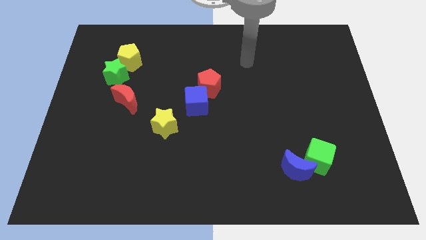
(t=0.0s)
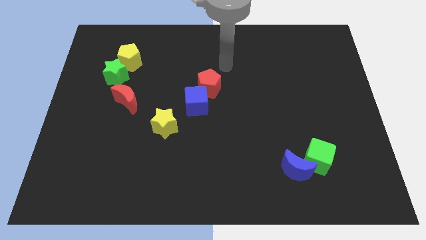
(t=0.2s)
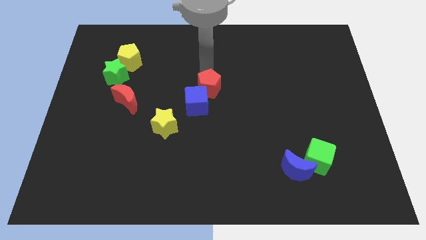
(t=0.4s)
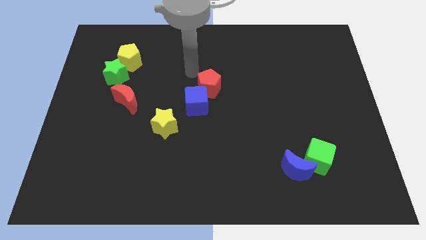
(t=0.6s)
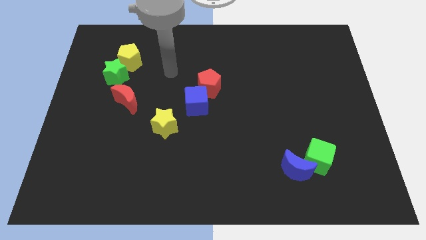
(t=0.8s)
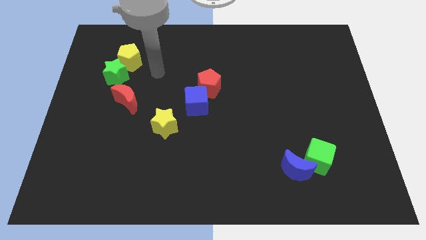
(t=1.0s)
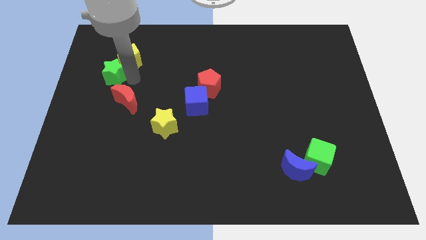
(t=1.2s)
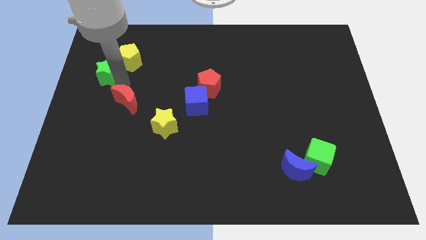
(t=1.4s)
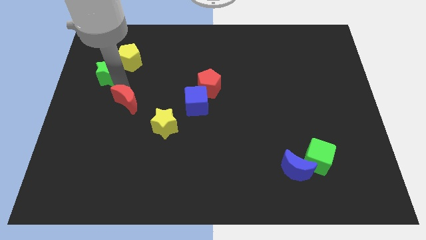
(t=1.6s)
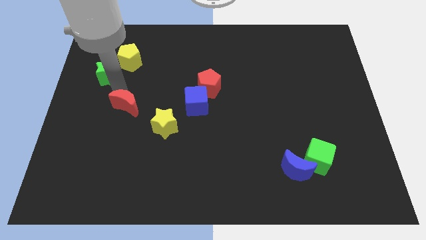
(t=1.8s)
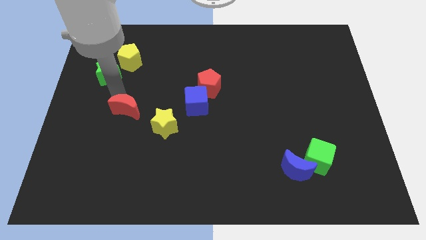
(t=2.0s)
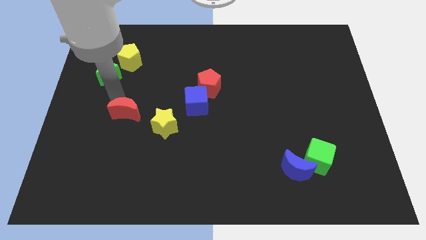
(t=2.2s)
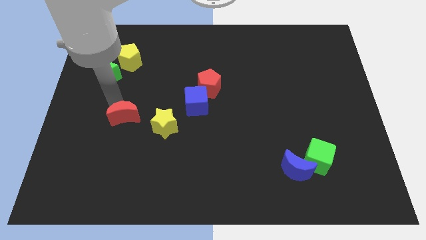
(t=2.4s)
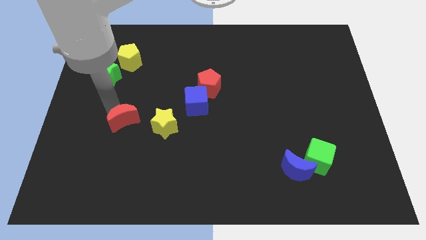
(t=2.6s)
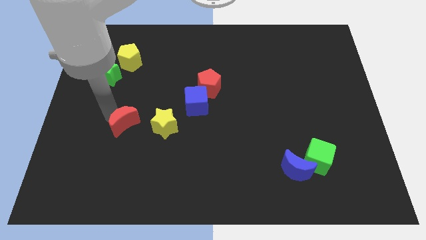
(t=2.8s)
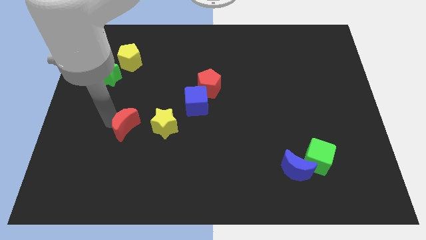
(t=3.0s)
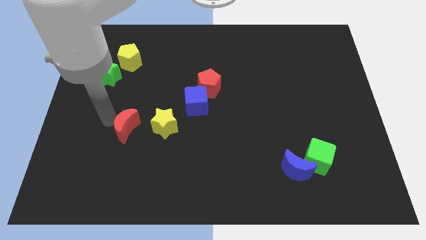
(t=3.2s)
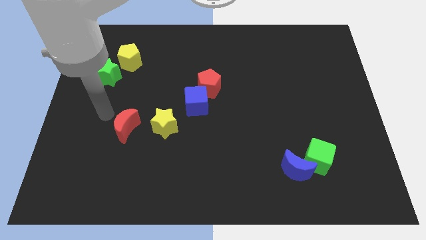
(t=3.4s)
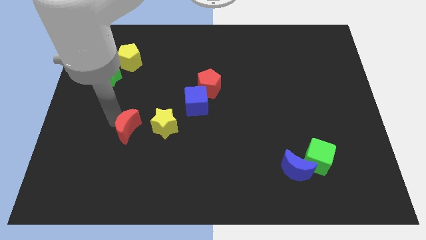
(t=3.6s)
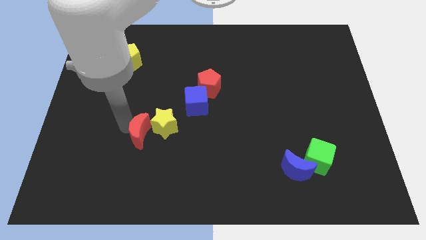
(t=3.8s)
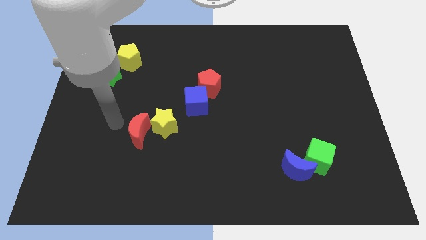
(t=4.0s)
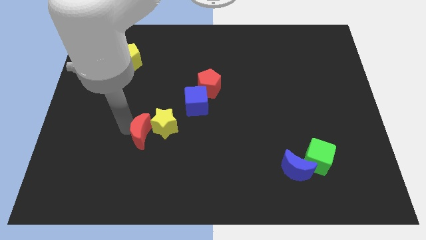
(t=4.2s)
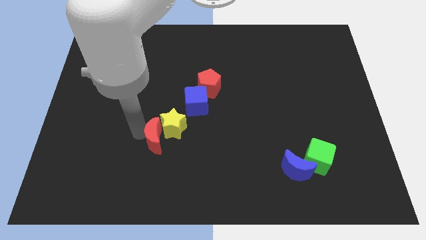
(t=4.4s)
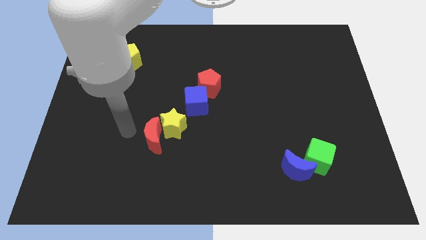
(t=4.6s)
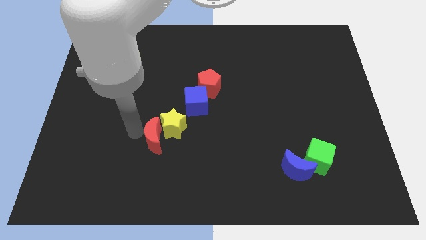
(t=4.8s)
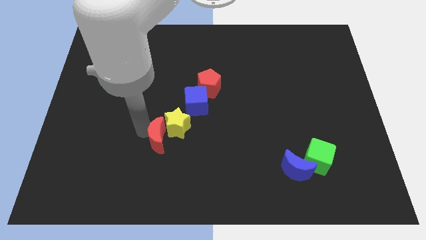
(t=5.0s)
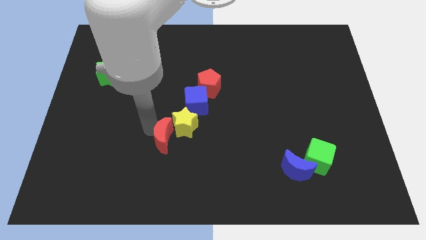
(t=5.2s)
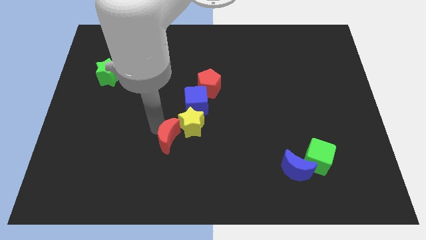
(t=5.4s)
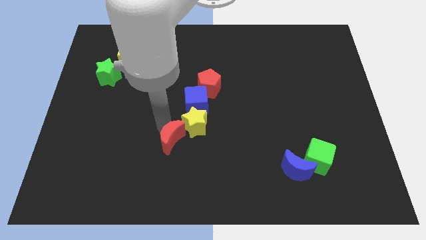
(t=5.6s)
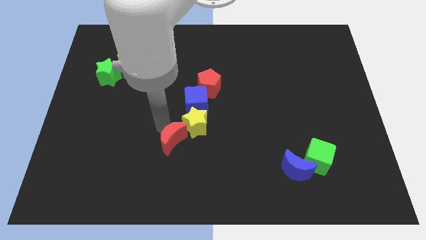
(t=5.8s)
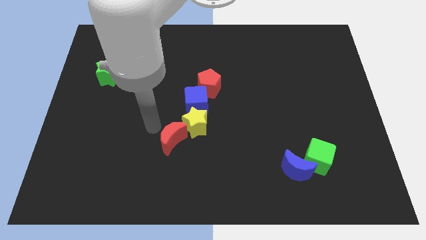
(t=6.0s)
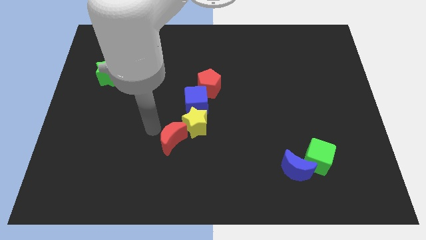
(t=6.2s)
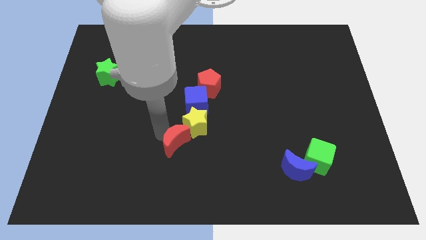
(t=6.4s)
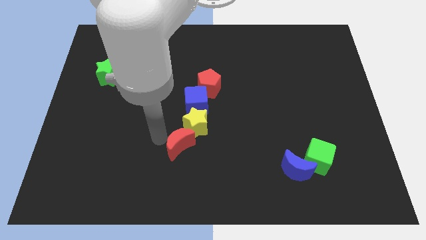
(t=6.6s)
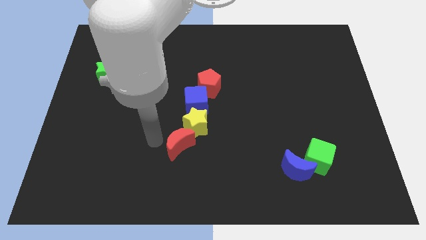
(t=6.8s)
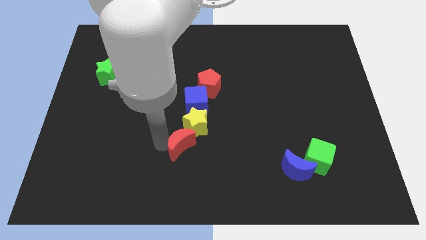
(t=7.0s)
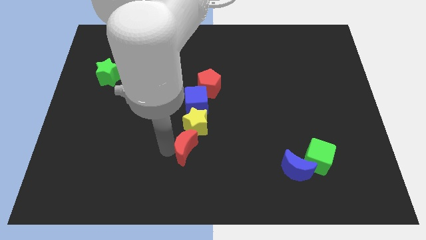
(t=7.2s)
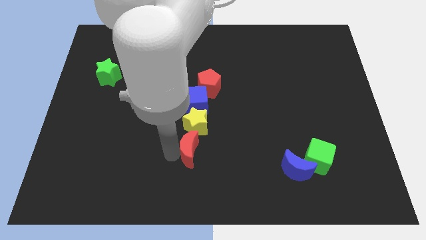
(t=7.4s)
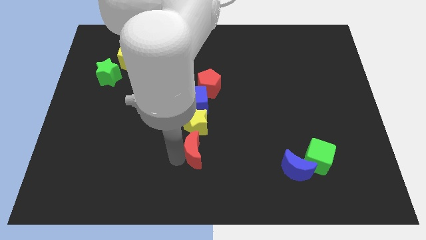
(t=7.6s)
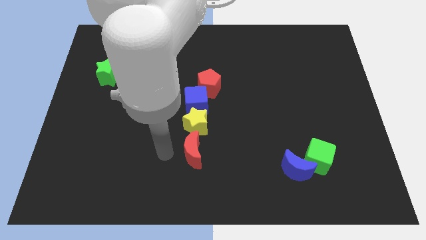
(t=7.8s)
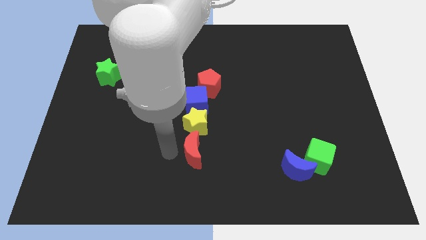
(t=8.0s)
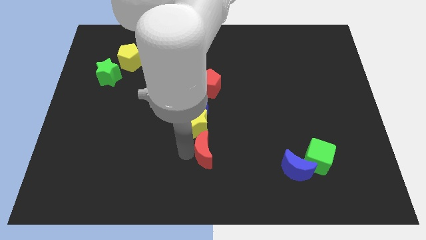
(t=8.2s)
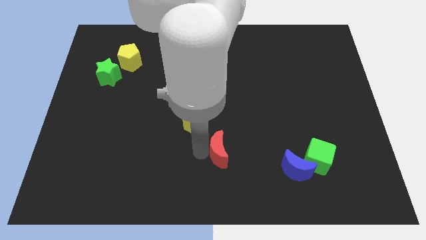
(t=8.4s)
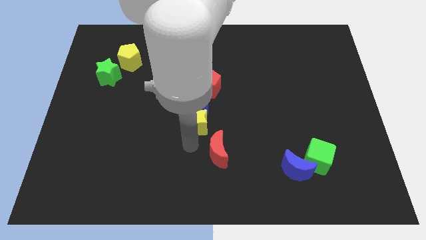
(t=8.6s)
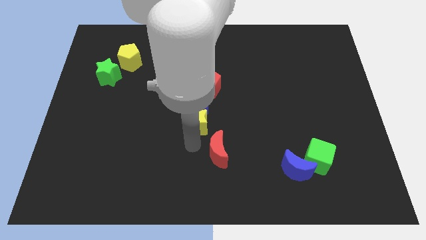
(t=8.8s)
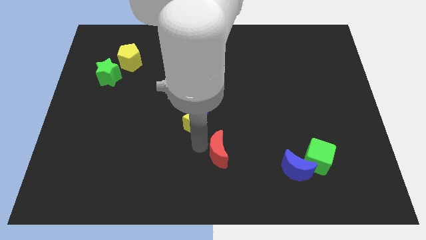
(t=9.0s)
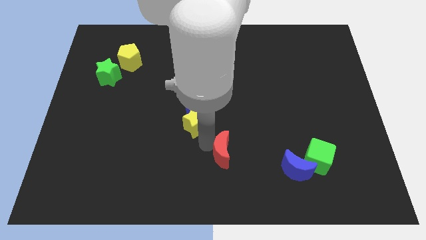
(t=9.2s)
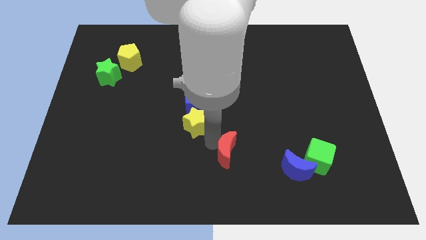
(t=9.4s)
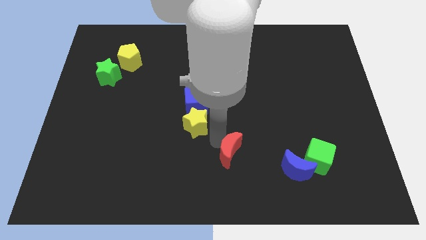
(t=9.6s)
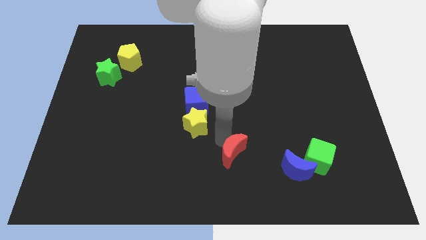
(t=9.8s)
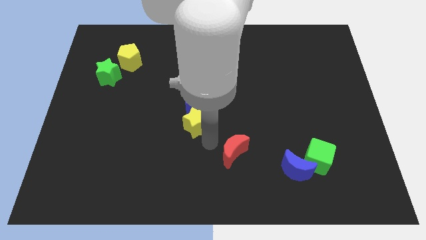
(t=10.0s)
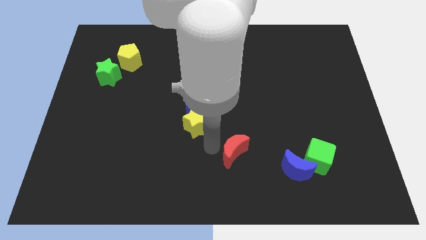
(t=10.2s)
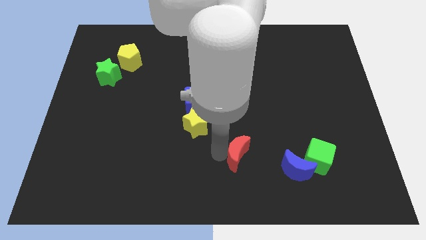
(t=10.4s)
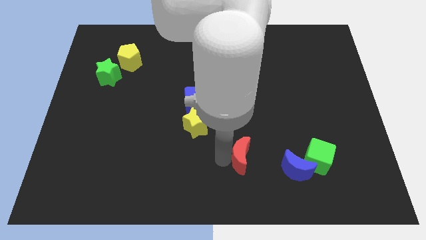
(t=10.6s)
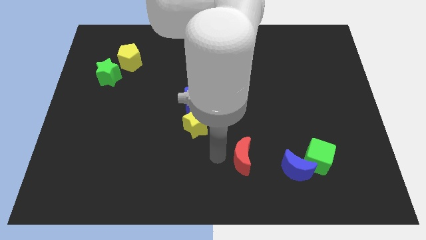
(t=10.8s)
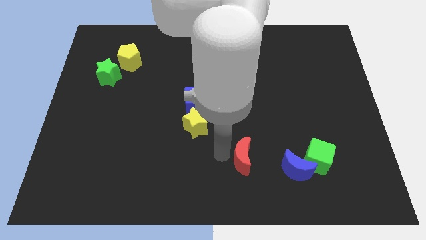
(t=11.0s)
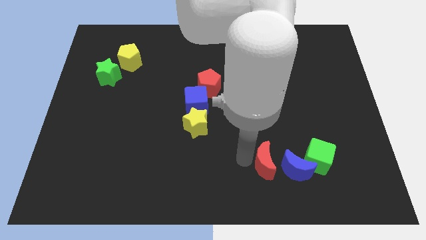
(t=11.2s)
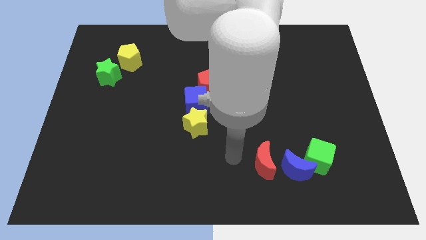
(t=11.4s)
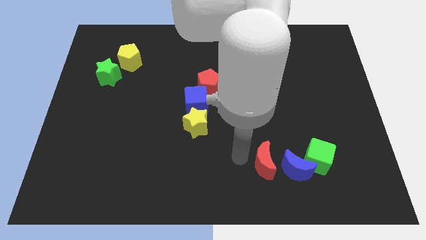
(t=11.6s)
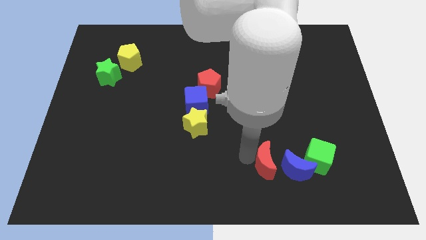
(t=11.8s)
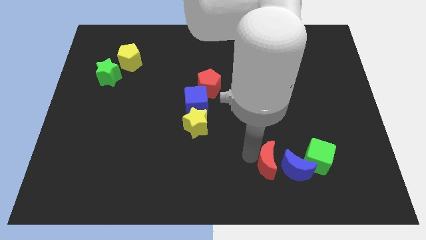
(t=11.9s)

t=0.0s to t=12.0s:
move the red moon to the blue moon

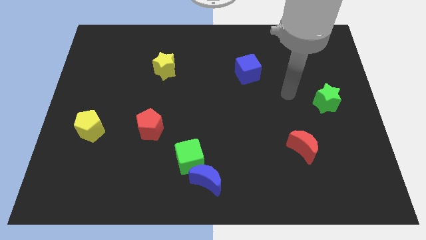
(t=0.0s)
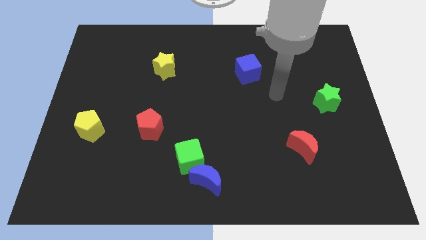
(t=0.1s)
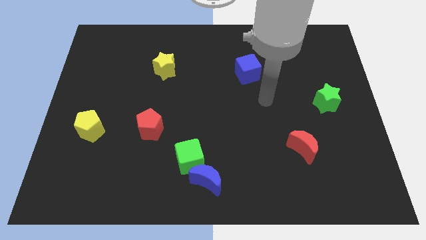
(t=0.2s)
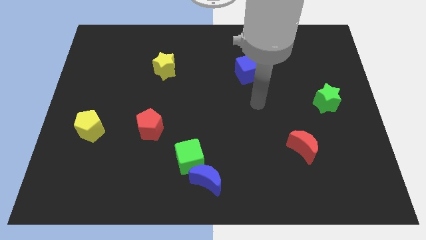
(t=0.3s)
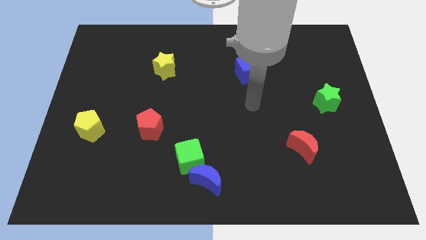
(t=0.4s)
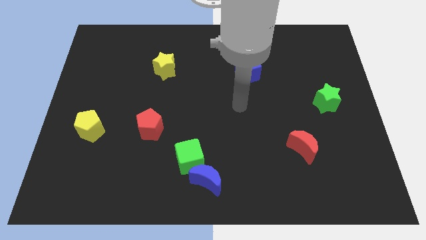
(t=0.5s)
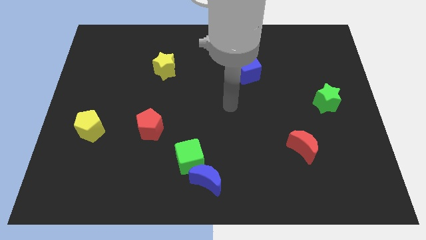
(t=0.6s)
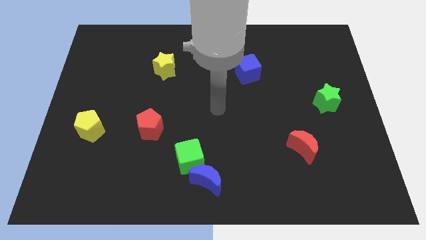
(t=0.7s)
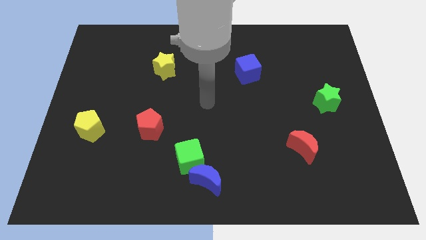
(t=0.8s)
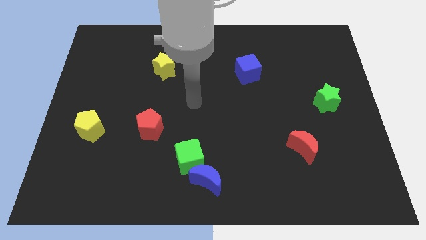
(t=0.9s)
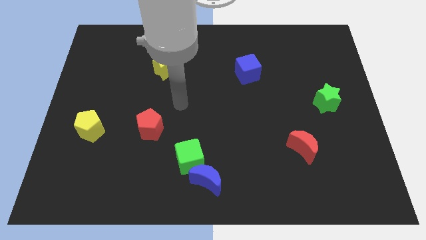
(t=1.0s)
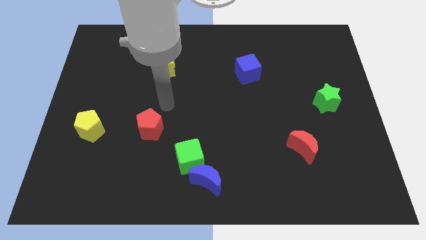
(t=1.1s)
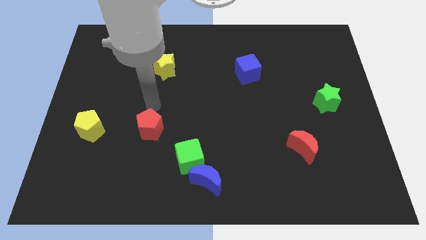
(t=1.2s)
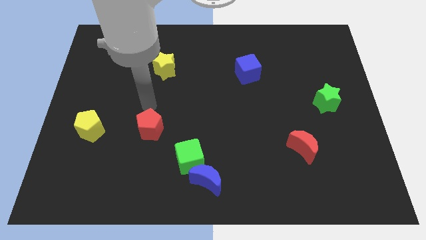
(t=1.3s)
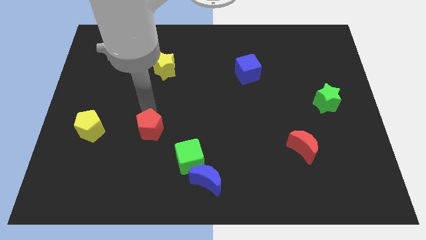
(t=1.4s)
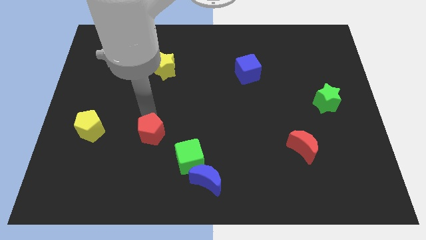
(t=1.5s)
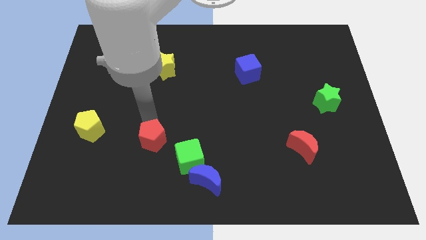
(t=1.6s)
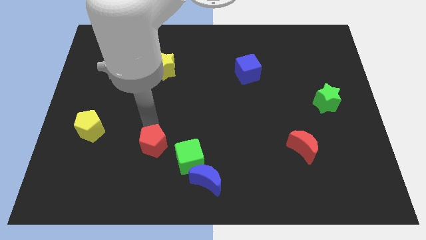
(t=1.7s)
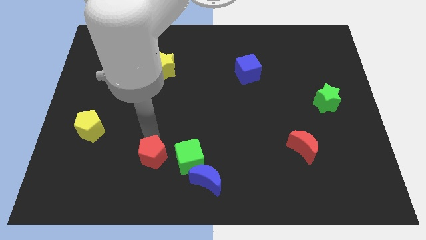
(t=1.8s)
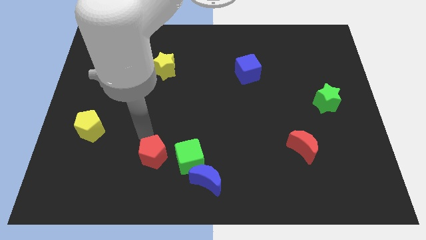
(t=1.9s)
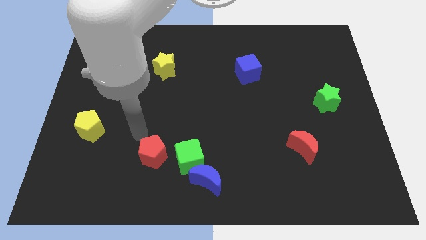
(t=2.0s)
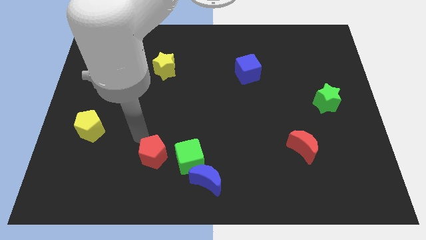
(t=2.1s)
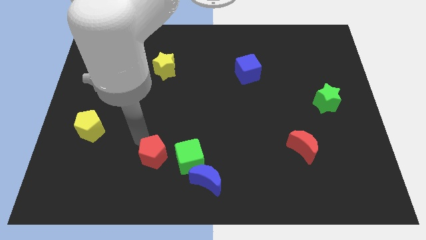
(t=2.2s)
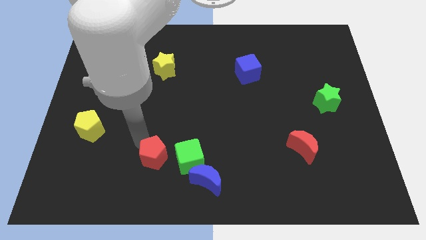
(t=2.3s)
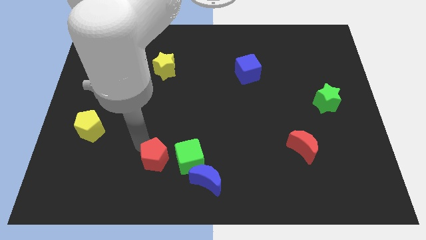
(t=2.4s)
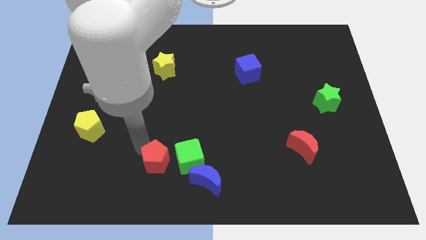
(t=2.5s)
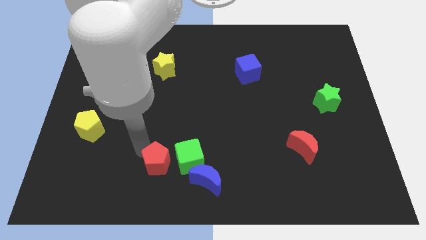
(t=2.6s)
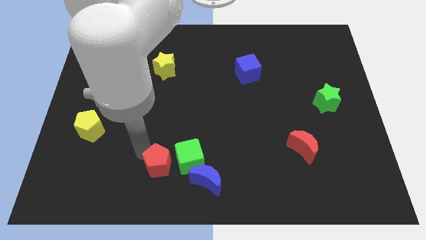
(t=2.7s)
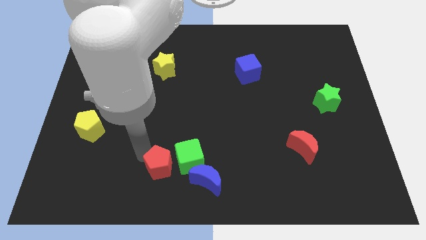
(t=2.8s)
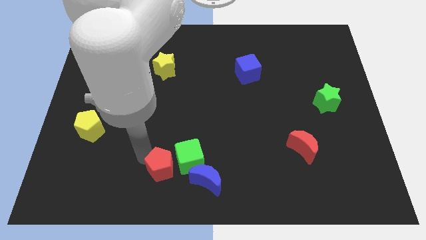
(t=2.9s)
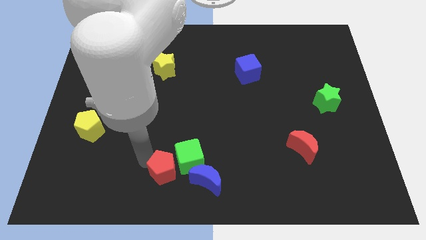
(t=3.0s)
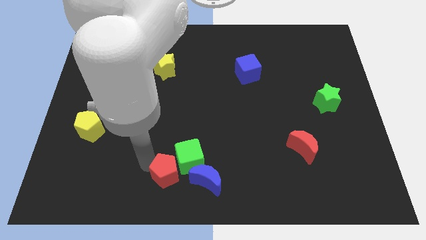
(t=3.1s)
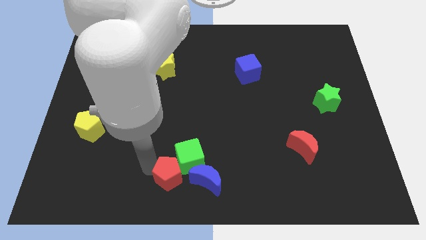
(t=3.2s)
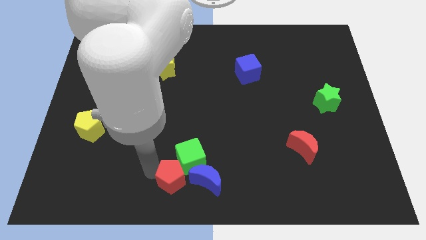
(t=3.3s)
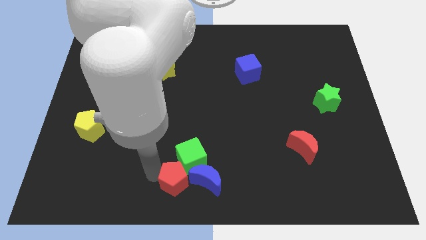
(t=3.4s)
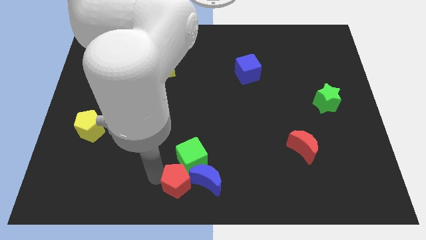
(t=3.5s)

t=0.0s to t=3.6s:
put the red pentagon close to the blue moon
